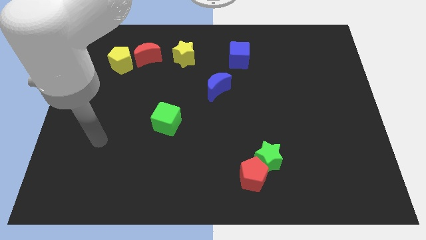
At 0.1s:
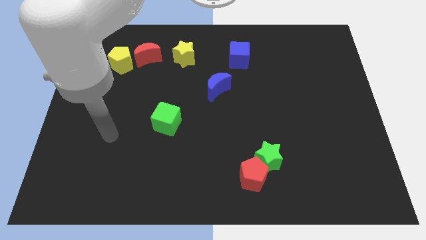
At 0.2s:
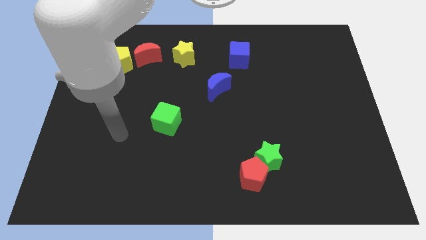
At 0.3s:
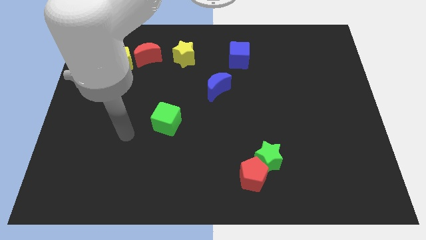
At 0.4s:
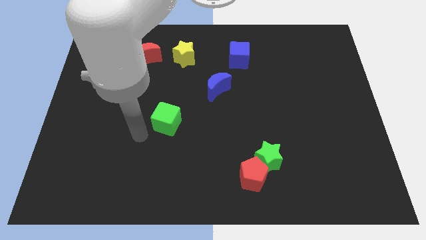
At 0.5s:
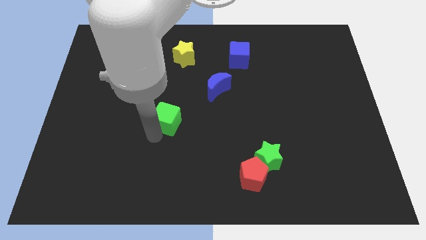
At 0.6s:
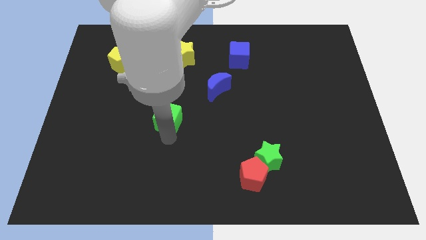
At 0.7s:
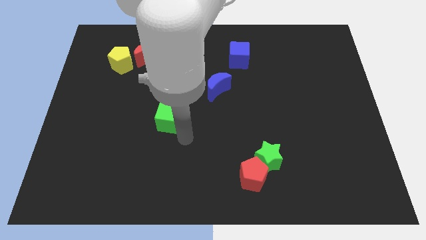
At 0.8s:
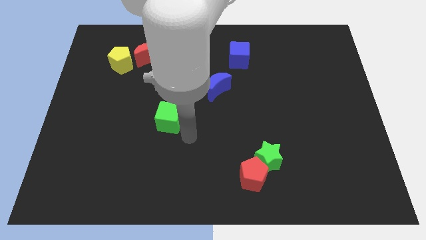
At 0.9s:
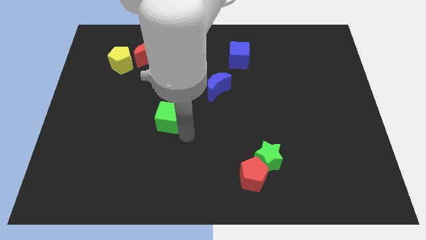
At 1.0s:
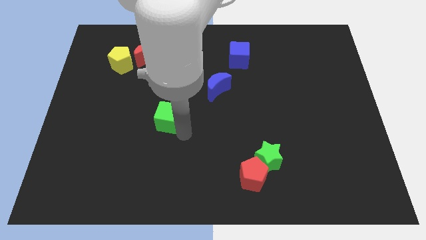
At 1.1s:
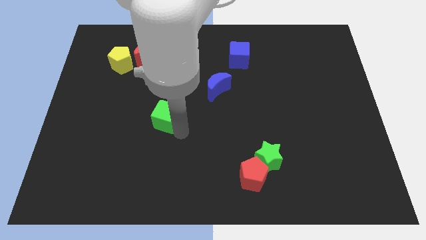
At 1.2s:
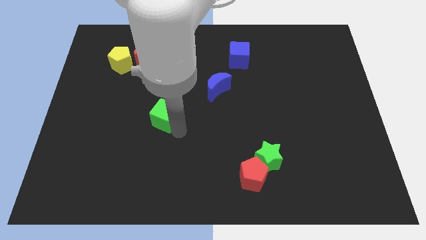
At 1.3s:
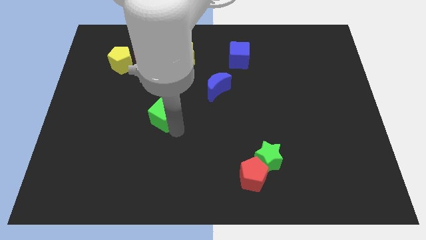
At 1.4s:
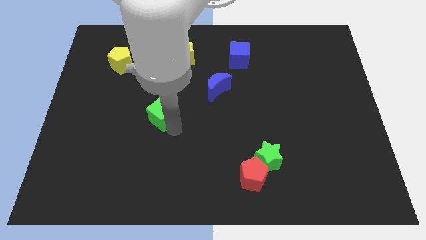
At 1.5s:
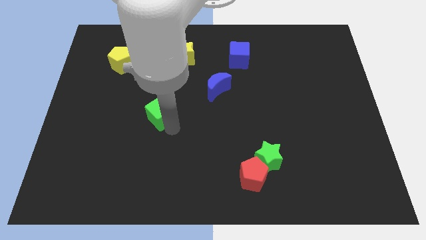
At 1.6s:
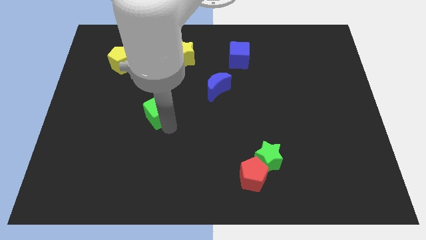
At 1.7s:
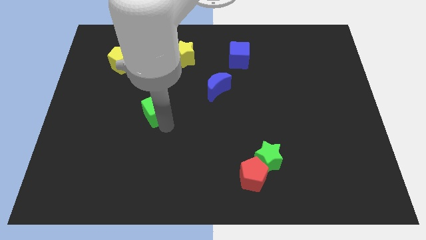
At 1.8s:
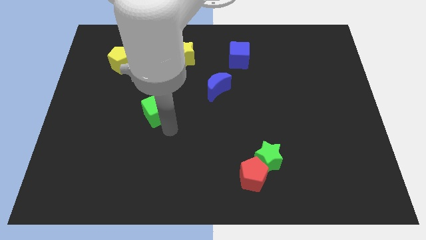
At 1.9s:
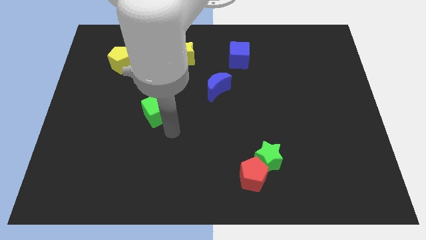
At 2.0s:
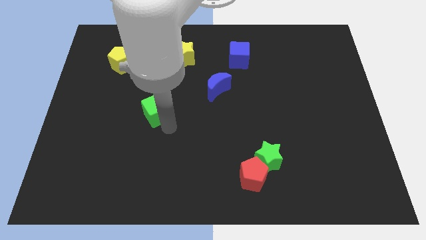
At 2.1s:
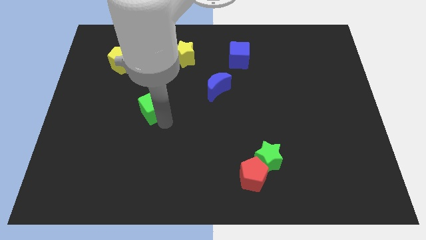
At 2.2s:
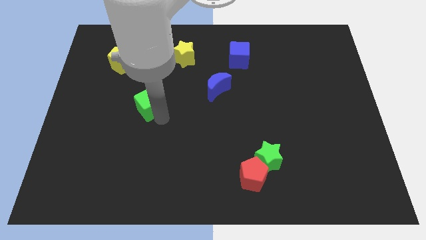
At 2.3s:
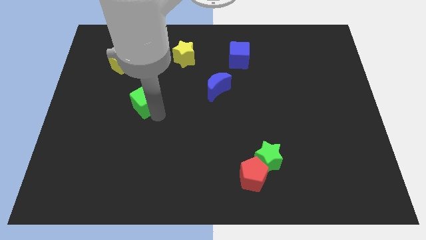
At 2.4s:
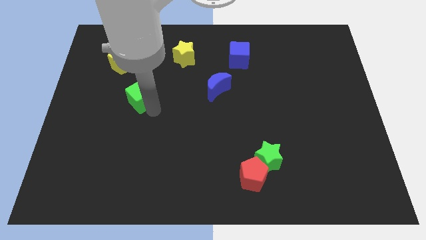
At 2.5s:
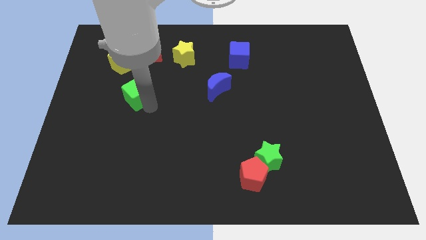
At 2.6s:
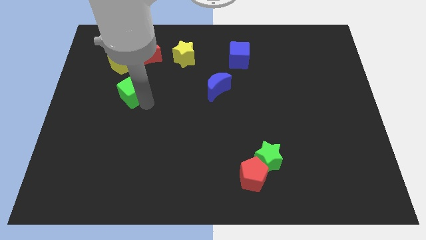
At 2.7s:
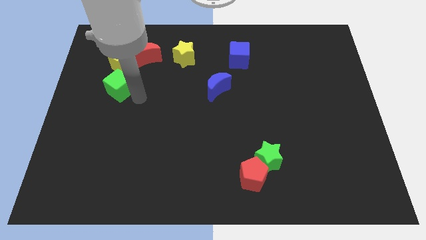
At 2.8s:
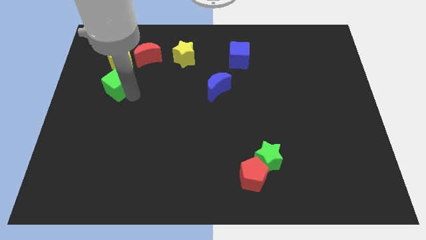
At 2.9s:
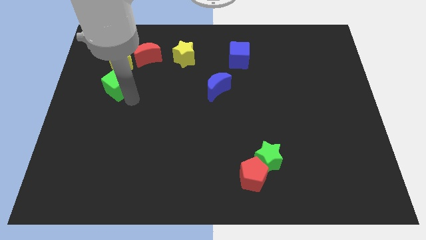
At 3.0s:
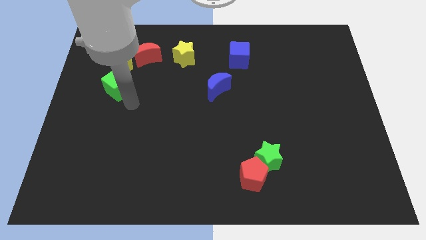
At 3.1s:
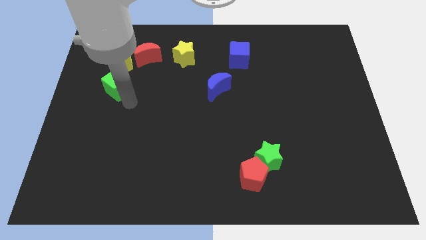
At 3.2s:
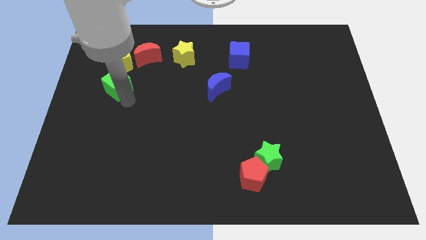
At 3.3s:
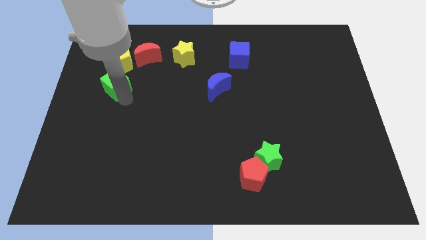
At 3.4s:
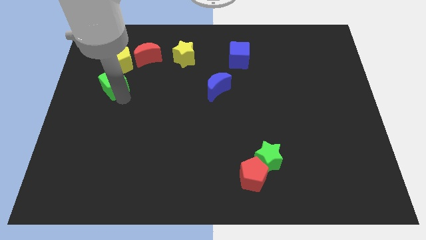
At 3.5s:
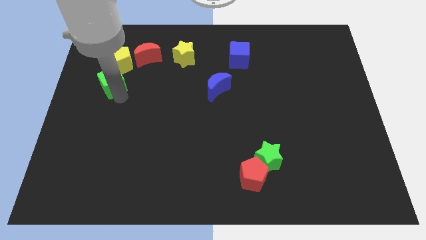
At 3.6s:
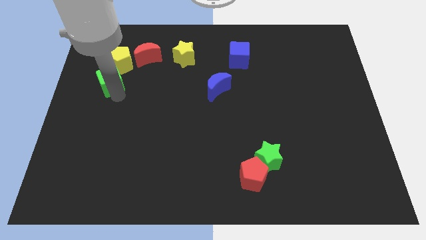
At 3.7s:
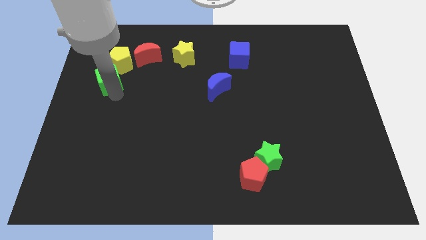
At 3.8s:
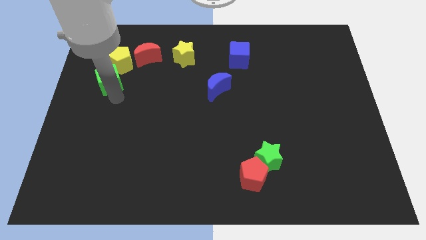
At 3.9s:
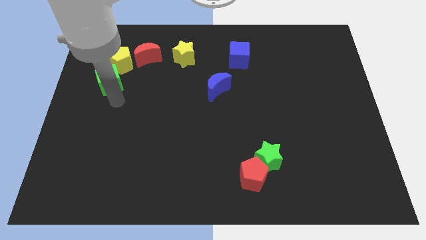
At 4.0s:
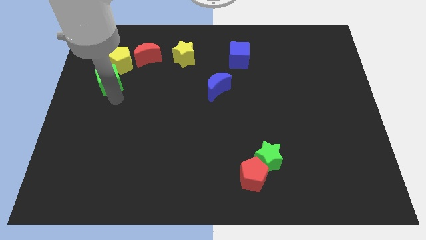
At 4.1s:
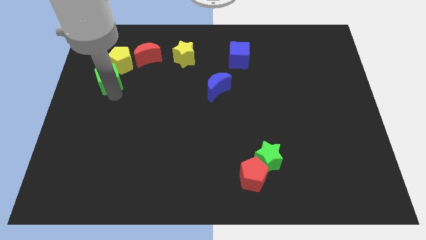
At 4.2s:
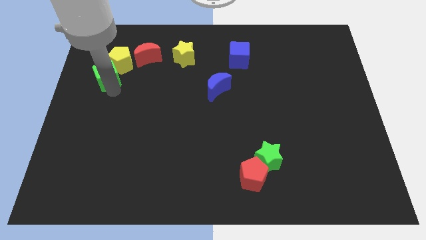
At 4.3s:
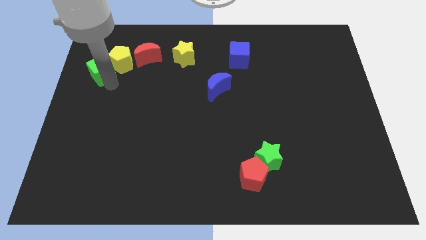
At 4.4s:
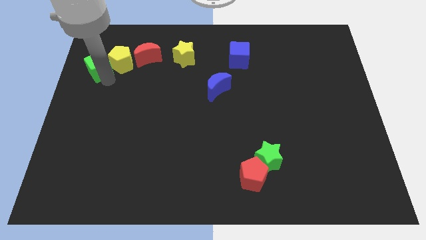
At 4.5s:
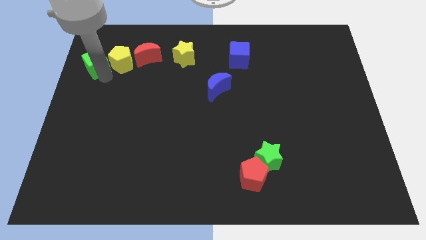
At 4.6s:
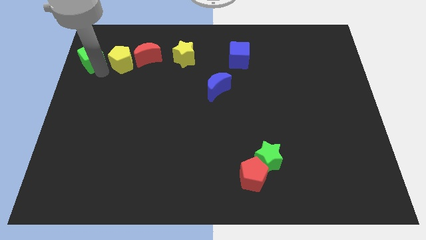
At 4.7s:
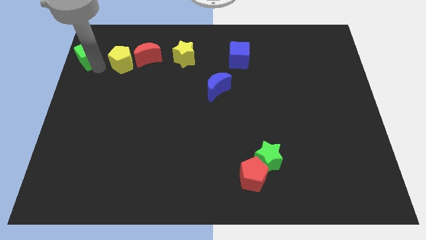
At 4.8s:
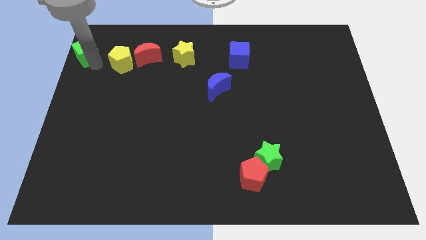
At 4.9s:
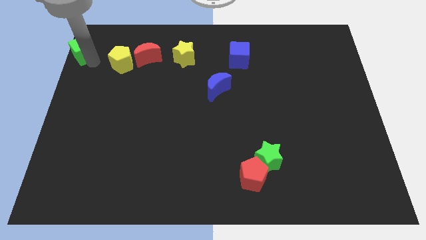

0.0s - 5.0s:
put the green cube to the top left corner

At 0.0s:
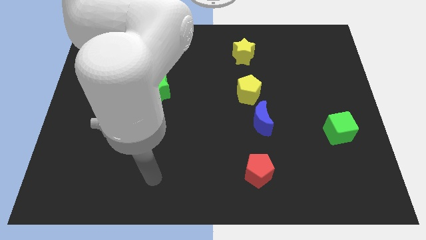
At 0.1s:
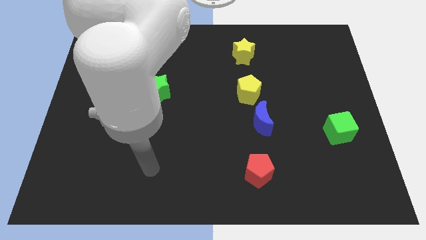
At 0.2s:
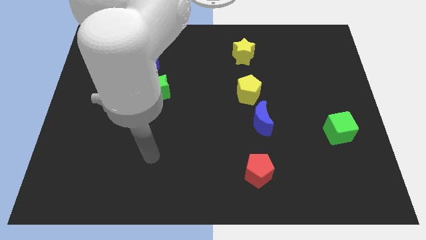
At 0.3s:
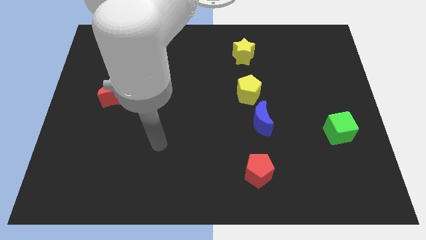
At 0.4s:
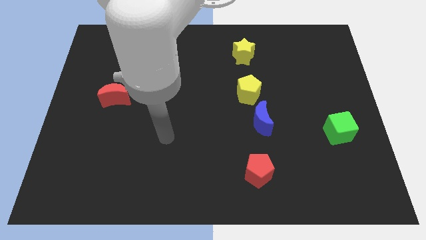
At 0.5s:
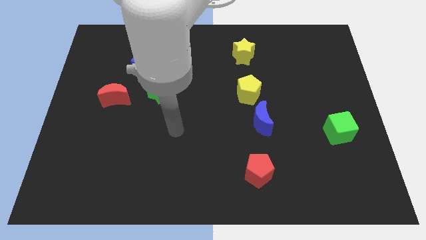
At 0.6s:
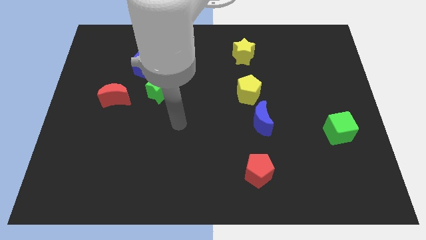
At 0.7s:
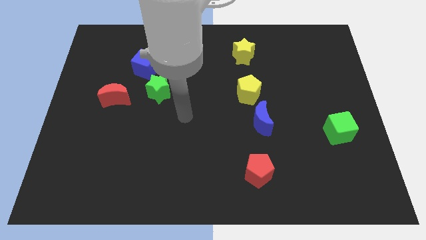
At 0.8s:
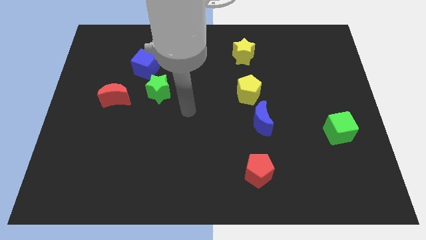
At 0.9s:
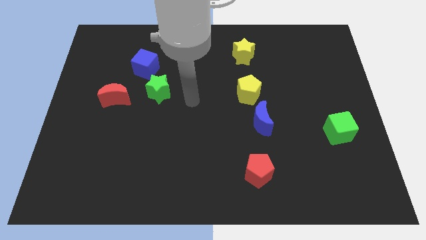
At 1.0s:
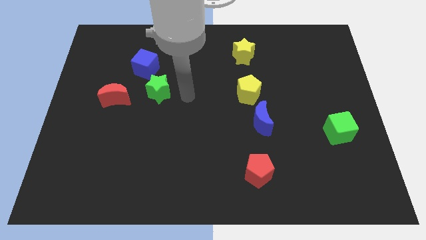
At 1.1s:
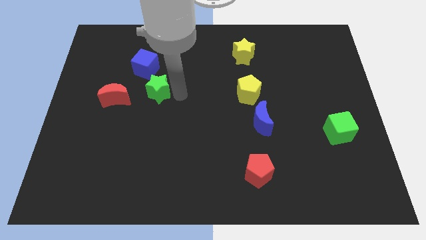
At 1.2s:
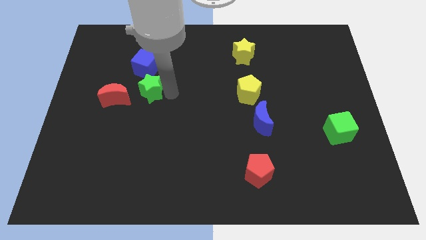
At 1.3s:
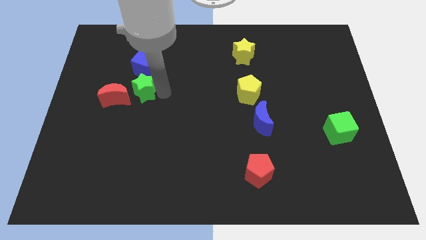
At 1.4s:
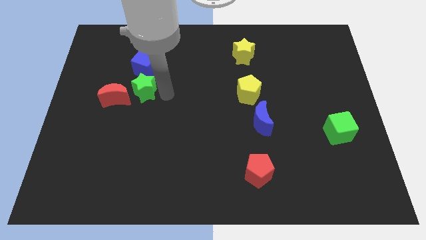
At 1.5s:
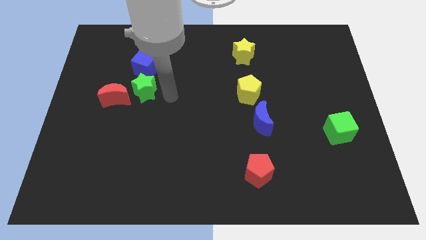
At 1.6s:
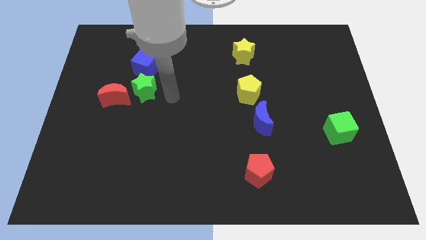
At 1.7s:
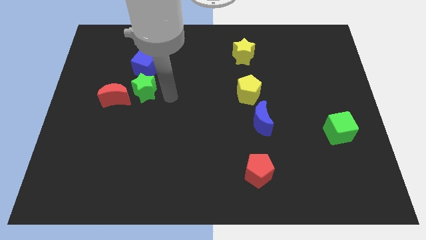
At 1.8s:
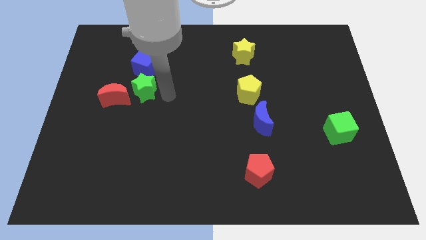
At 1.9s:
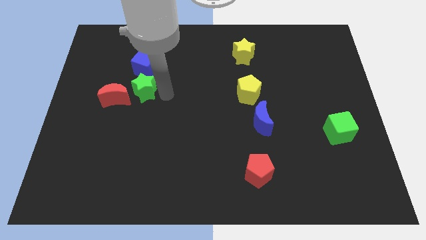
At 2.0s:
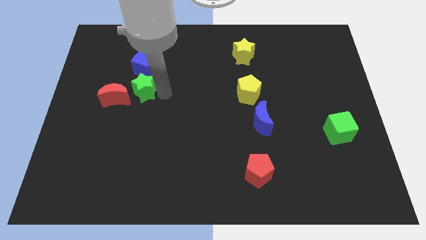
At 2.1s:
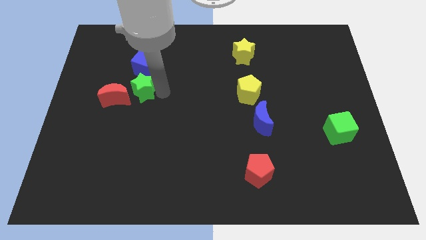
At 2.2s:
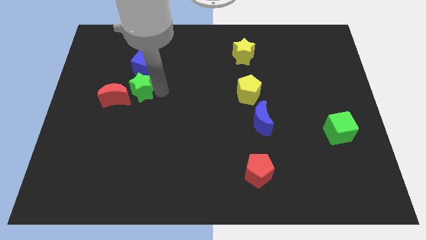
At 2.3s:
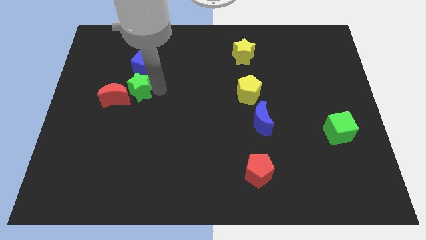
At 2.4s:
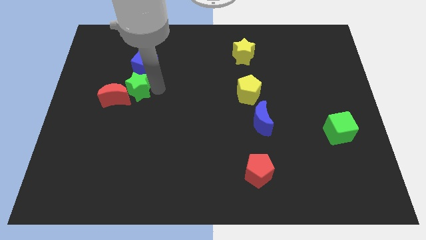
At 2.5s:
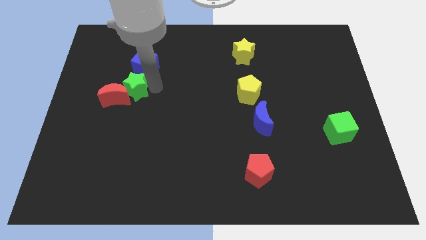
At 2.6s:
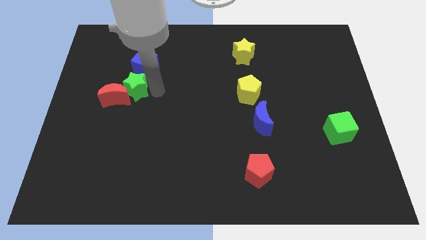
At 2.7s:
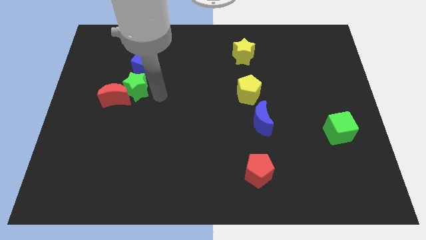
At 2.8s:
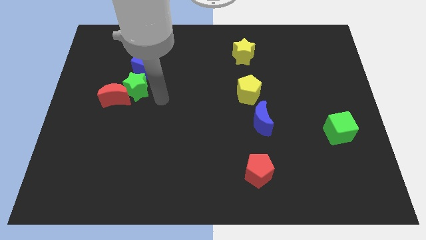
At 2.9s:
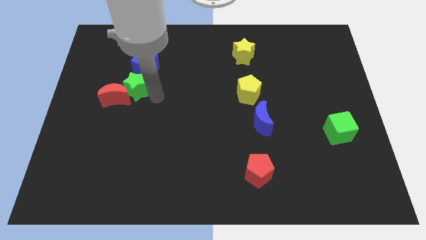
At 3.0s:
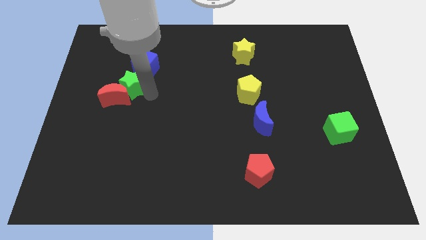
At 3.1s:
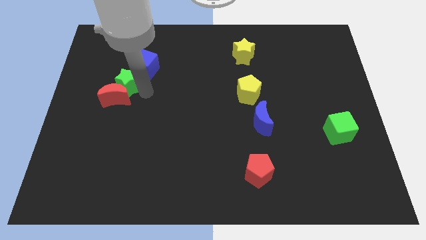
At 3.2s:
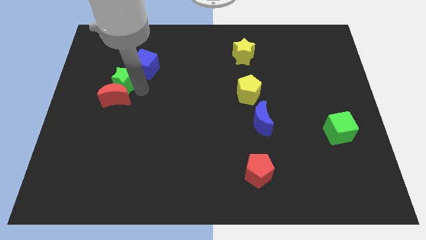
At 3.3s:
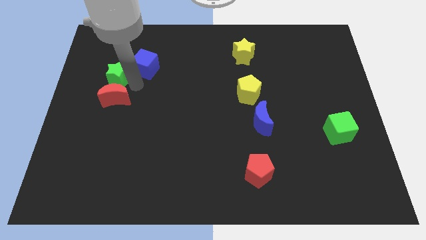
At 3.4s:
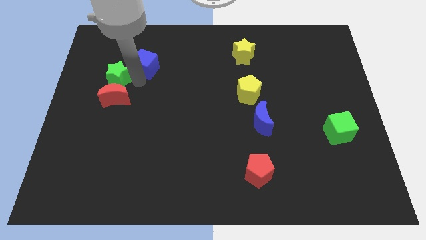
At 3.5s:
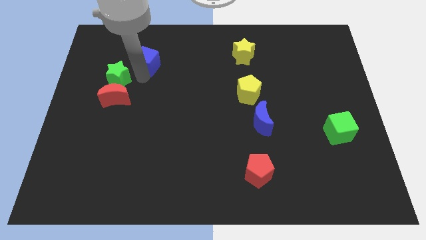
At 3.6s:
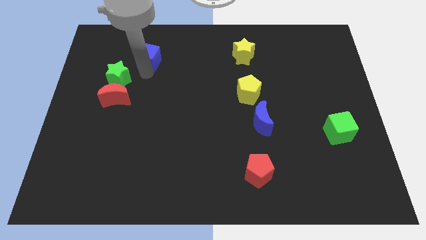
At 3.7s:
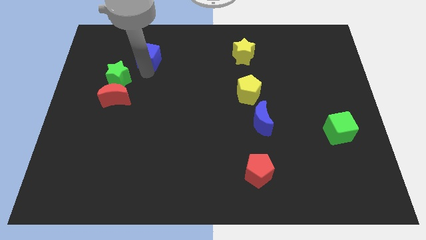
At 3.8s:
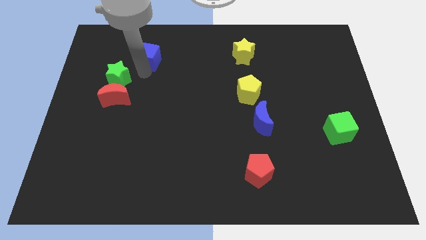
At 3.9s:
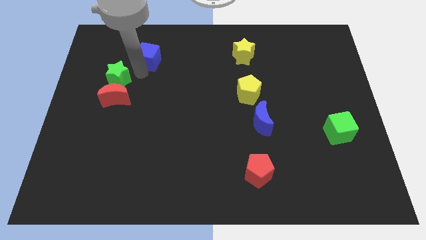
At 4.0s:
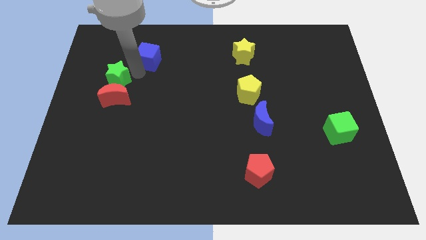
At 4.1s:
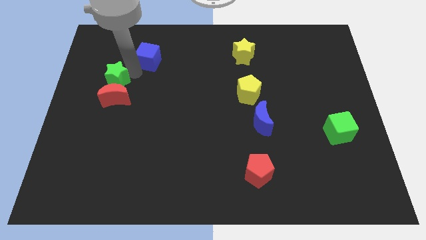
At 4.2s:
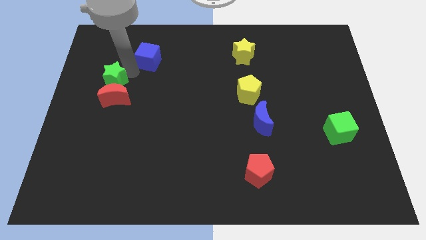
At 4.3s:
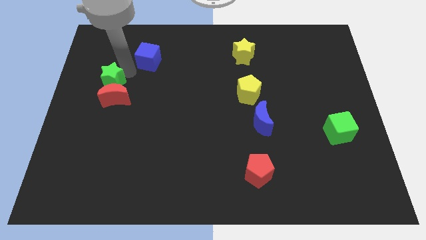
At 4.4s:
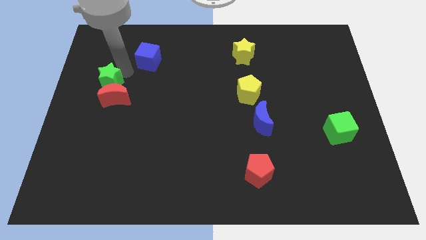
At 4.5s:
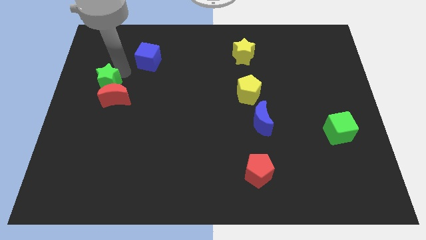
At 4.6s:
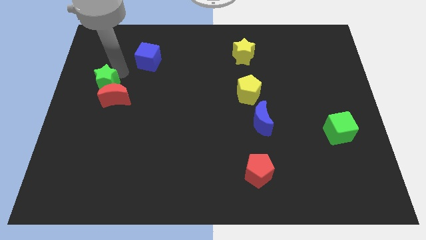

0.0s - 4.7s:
put the green star to the left side of the board
